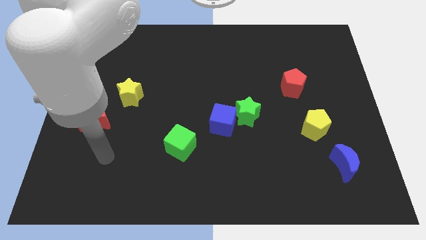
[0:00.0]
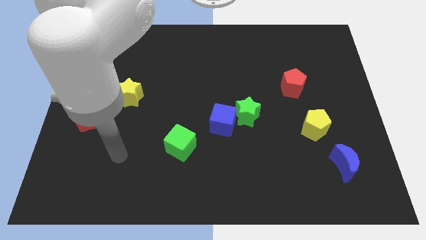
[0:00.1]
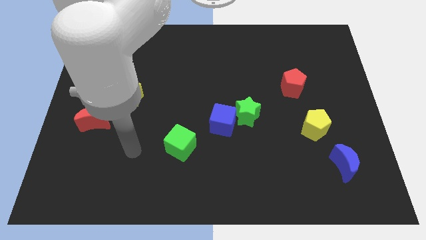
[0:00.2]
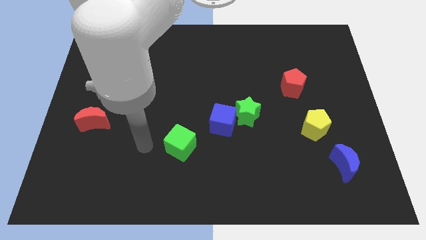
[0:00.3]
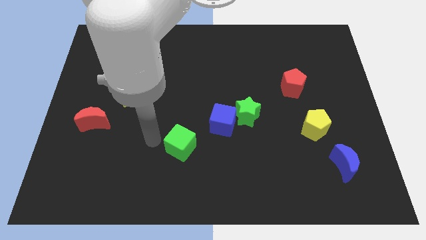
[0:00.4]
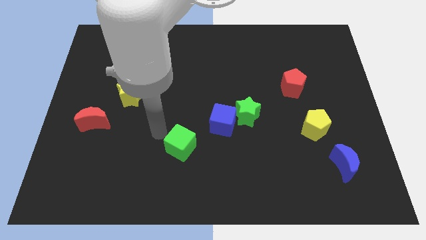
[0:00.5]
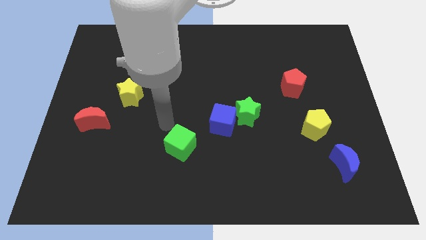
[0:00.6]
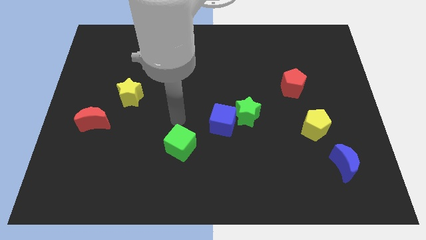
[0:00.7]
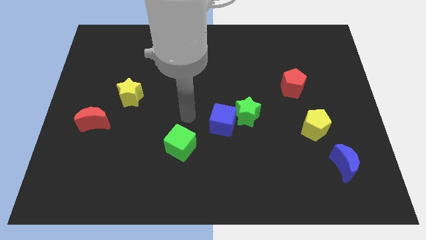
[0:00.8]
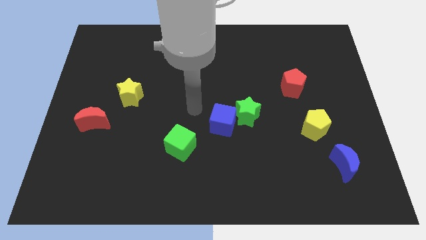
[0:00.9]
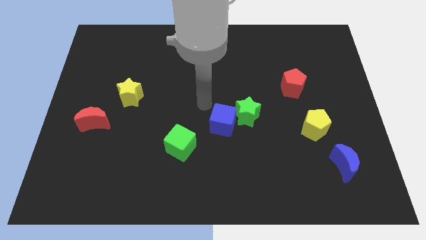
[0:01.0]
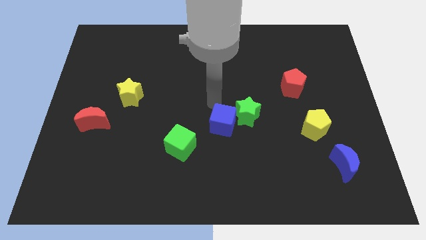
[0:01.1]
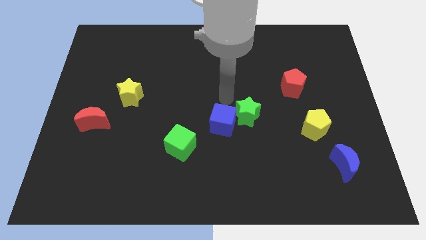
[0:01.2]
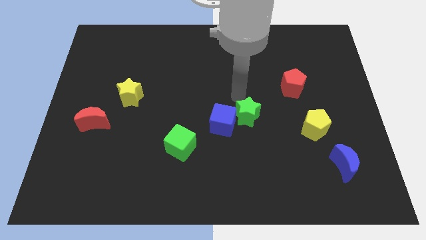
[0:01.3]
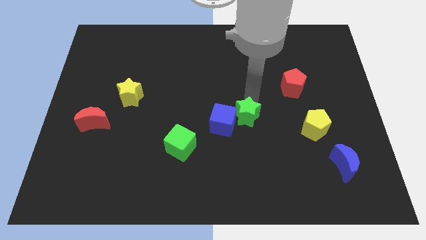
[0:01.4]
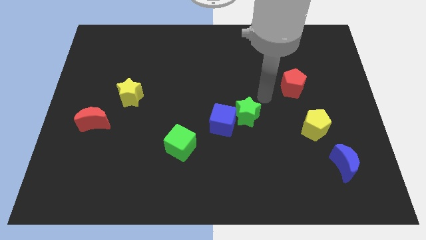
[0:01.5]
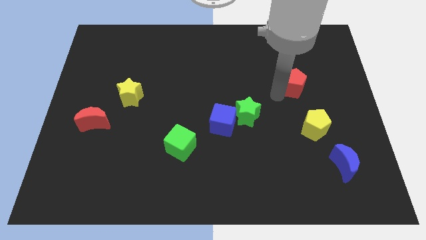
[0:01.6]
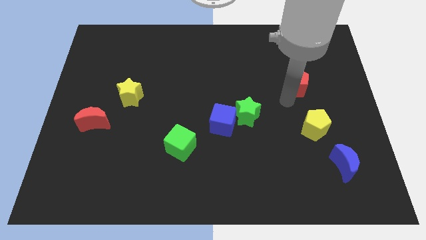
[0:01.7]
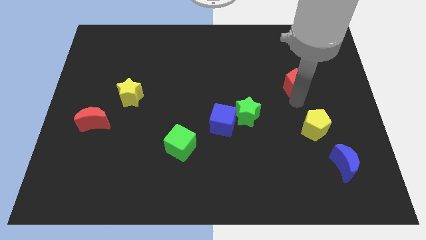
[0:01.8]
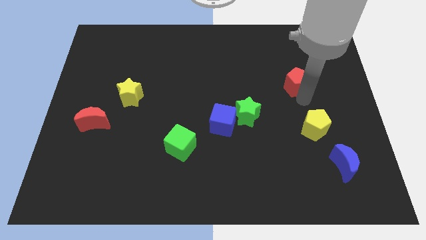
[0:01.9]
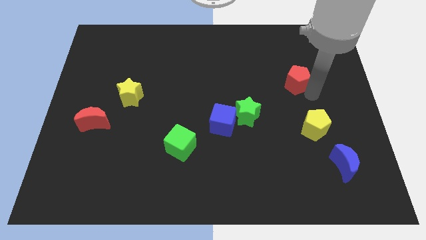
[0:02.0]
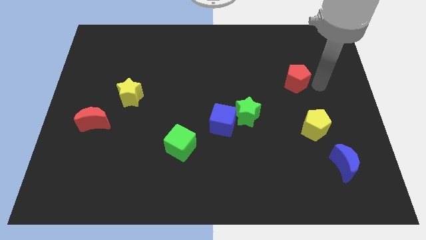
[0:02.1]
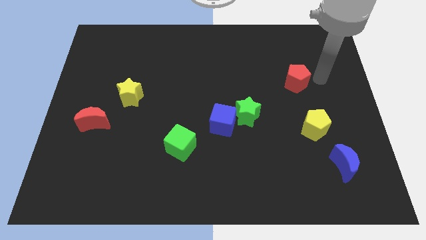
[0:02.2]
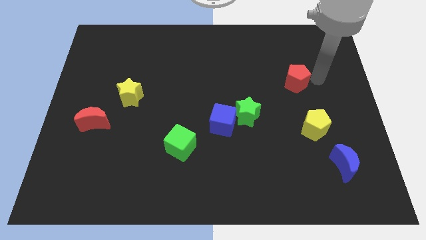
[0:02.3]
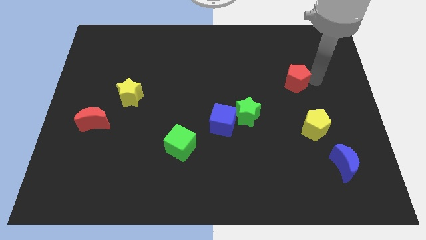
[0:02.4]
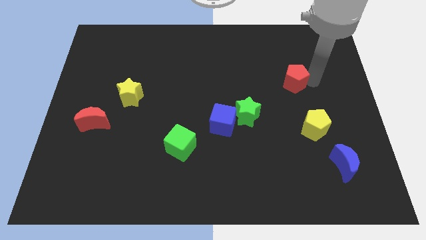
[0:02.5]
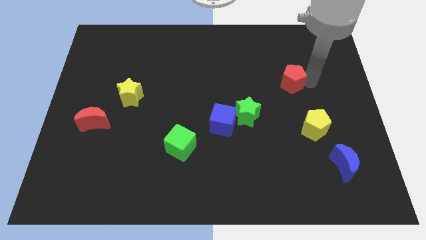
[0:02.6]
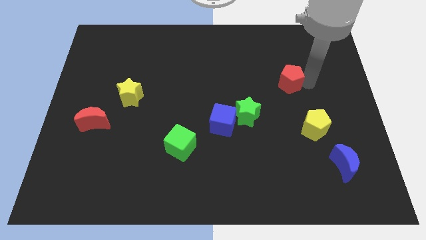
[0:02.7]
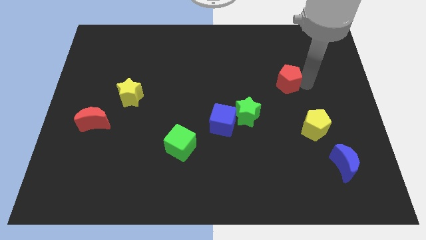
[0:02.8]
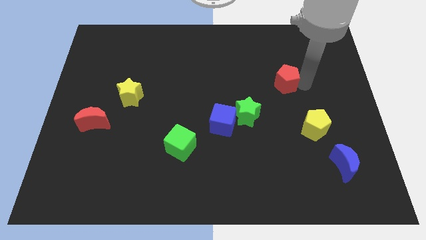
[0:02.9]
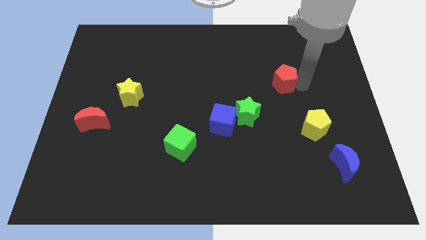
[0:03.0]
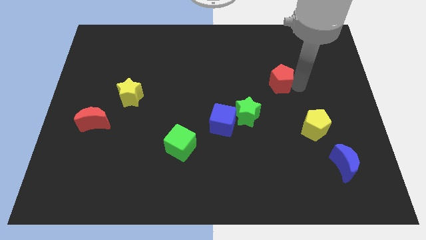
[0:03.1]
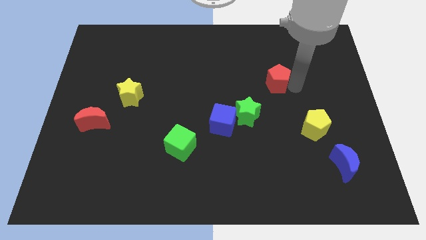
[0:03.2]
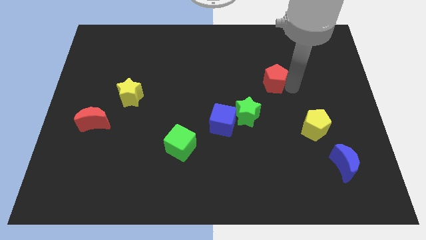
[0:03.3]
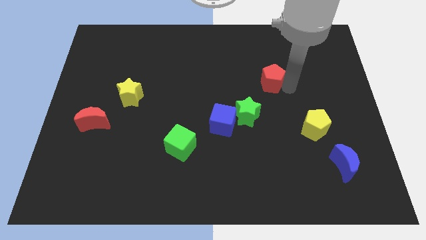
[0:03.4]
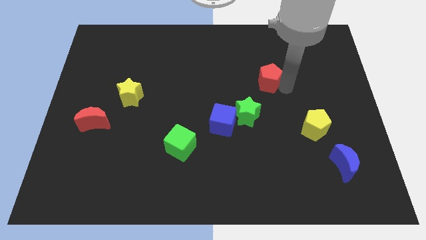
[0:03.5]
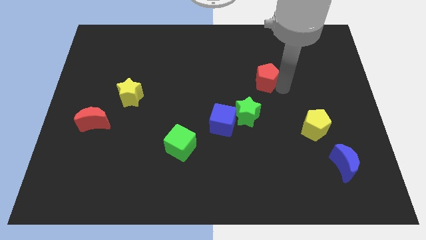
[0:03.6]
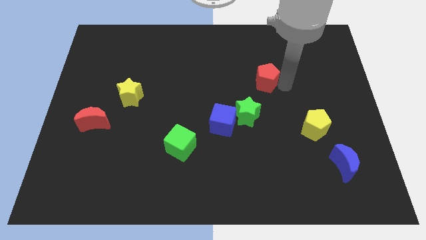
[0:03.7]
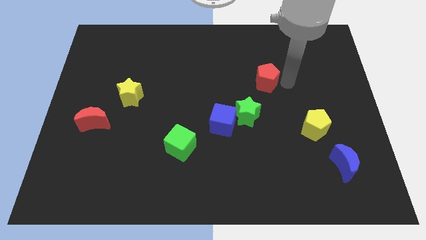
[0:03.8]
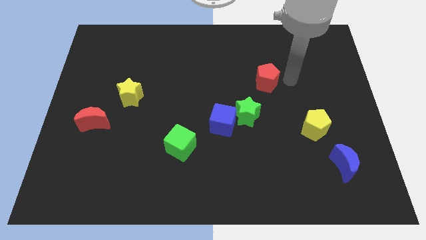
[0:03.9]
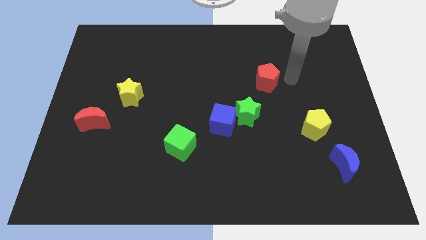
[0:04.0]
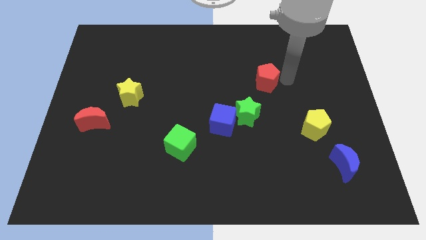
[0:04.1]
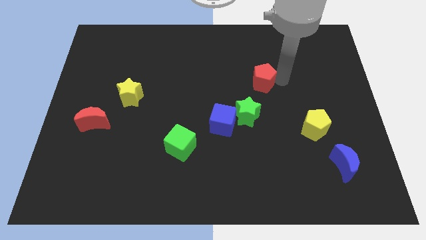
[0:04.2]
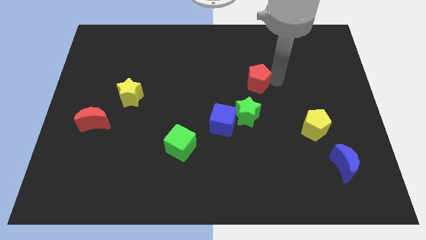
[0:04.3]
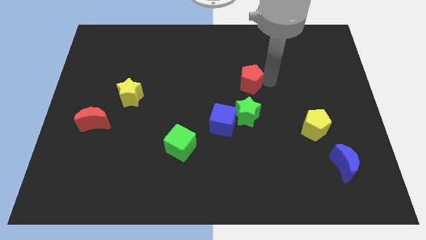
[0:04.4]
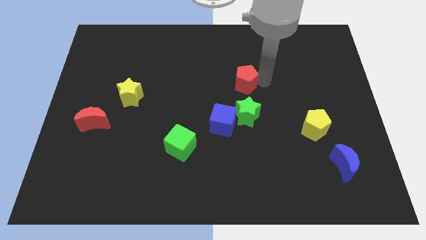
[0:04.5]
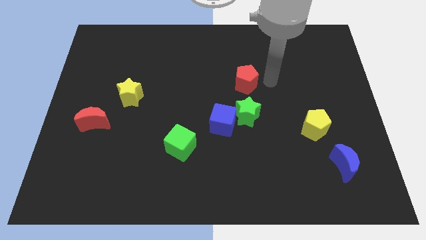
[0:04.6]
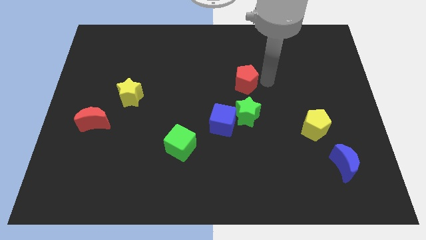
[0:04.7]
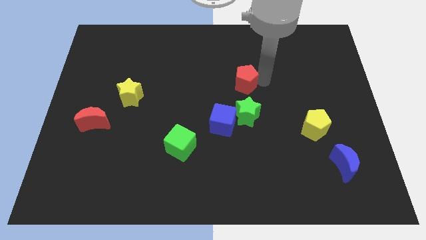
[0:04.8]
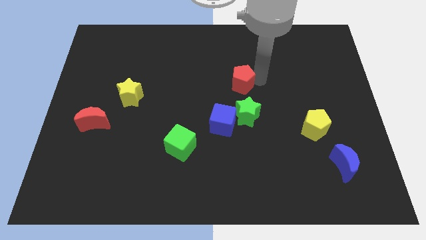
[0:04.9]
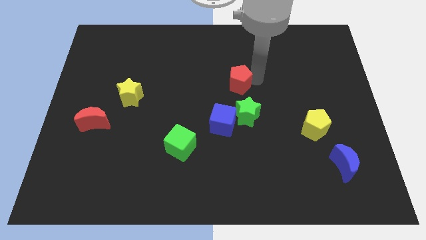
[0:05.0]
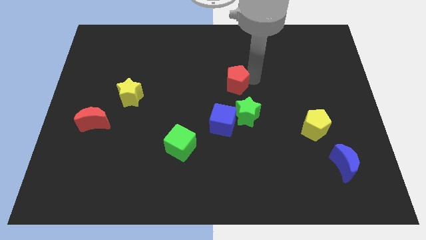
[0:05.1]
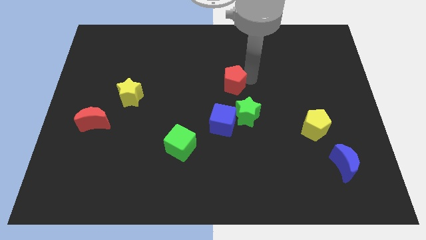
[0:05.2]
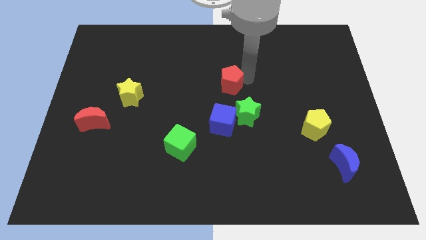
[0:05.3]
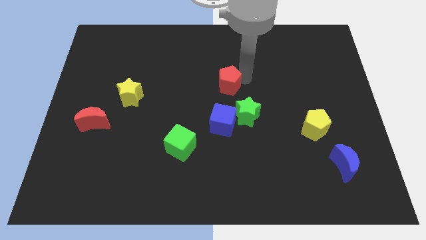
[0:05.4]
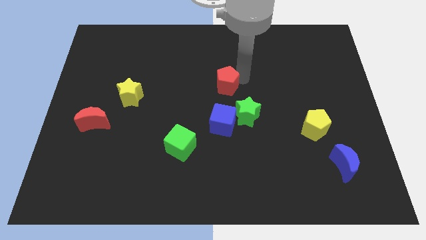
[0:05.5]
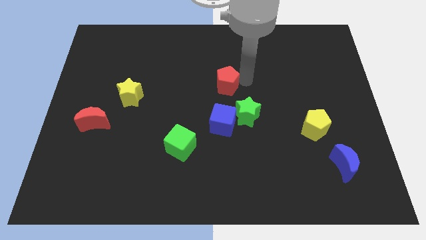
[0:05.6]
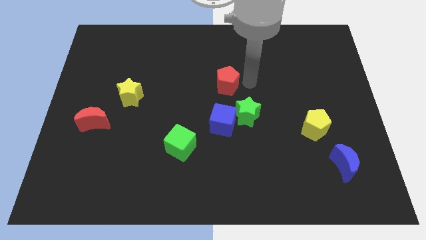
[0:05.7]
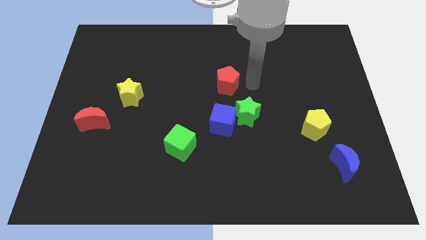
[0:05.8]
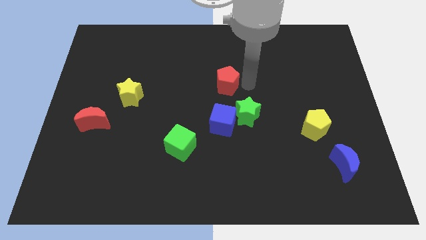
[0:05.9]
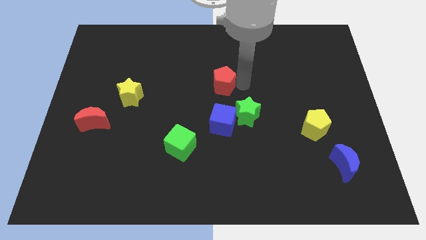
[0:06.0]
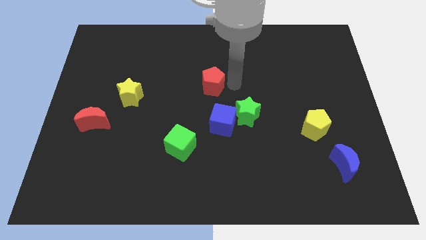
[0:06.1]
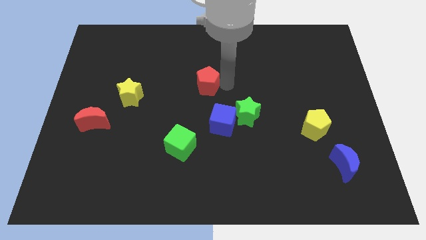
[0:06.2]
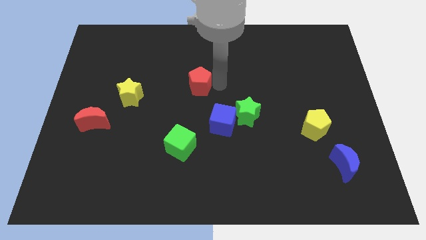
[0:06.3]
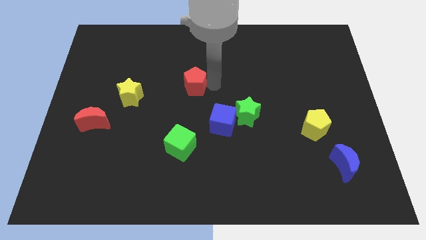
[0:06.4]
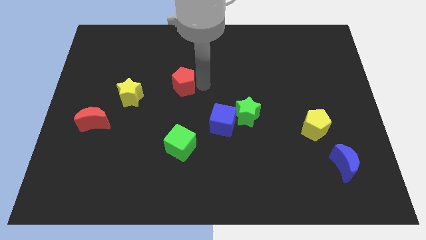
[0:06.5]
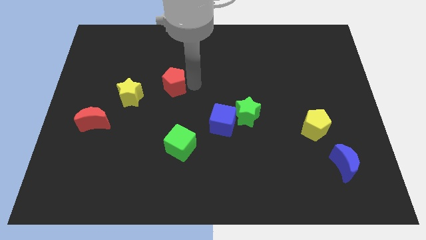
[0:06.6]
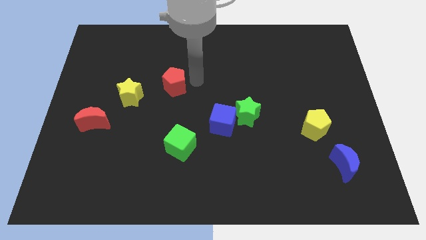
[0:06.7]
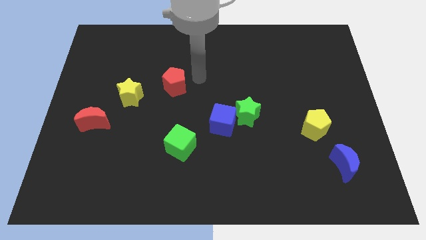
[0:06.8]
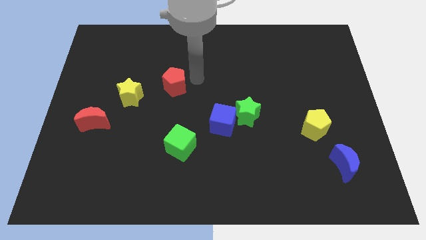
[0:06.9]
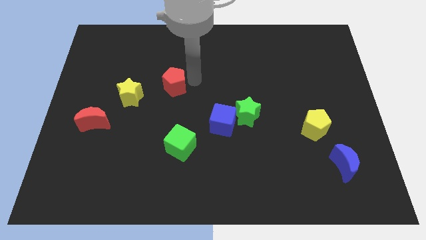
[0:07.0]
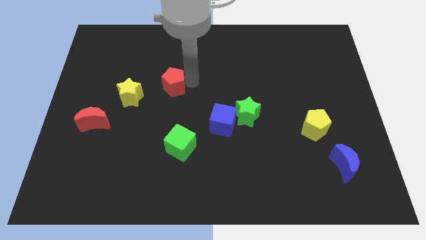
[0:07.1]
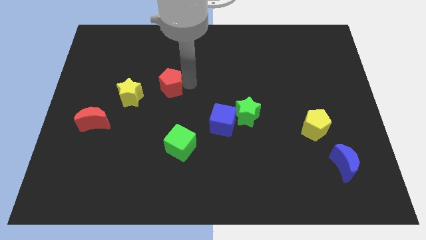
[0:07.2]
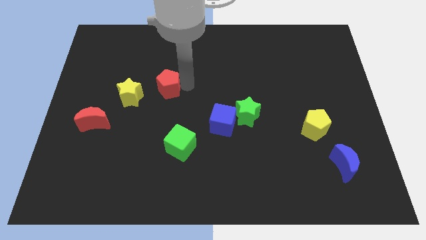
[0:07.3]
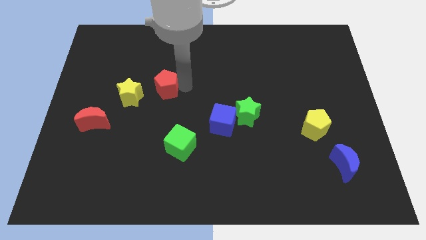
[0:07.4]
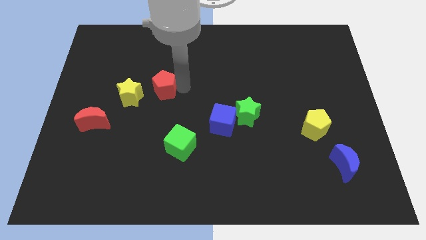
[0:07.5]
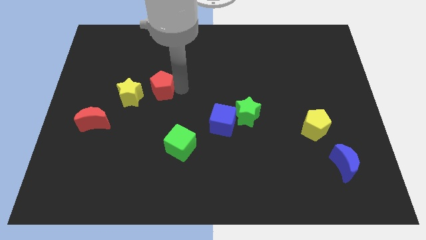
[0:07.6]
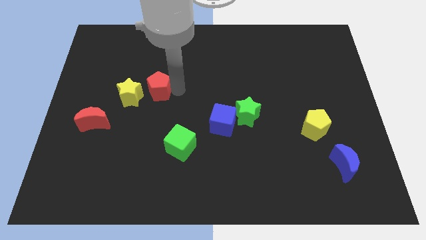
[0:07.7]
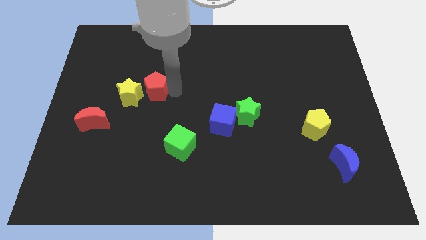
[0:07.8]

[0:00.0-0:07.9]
push the red pentagon to the yellow star
